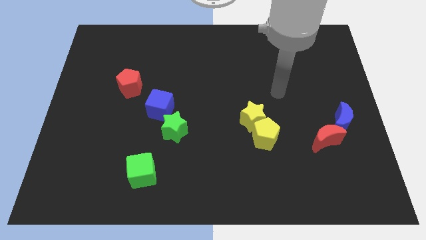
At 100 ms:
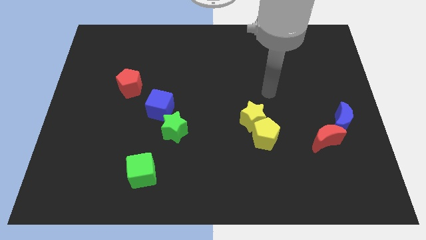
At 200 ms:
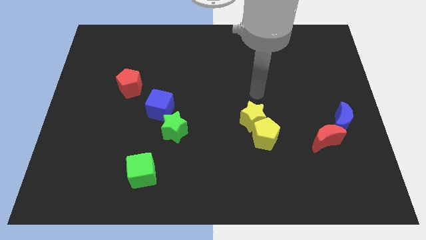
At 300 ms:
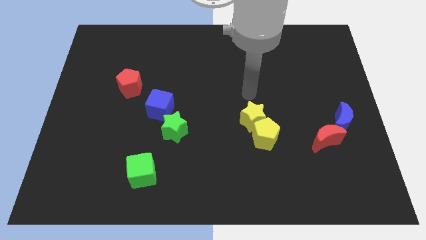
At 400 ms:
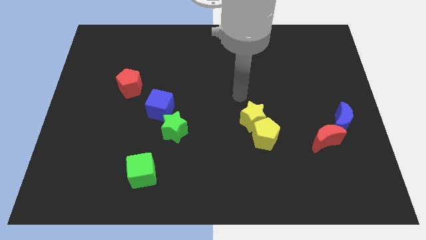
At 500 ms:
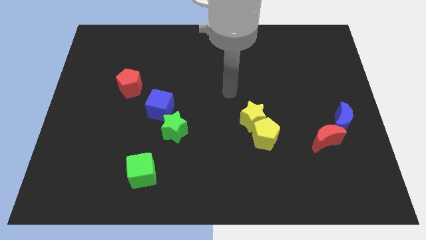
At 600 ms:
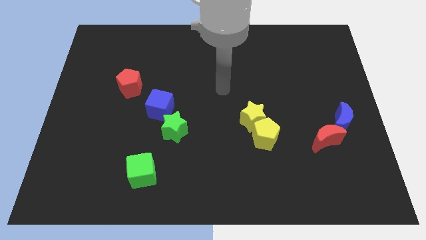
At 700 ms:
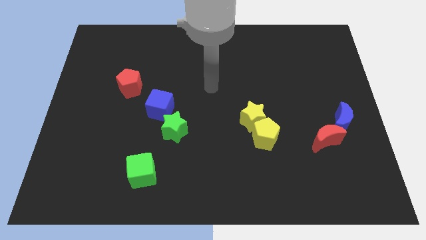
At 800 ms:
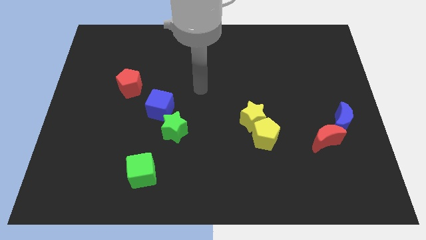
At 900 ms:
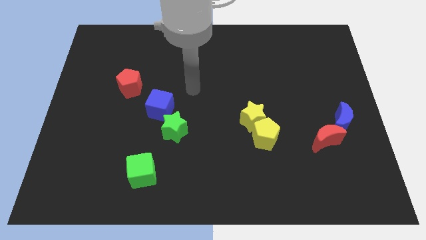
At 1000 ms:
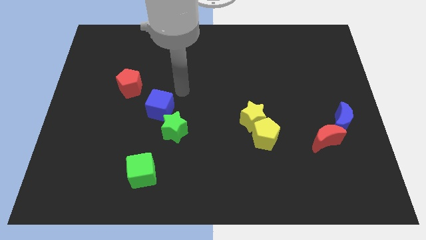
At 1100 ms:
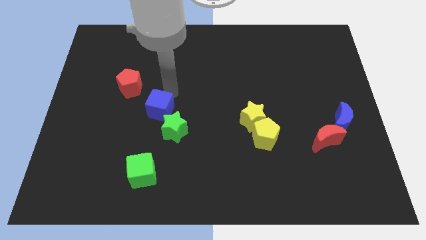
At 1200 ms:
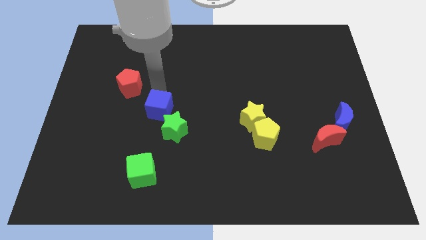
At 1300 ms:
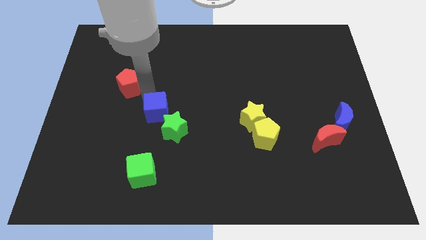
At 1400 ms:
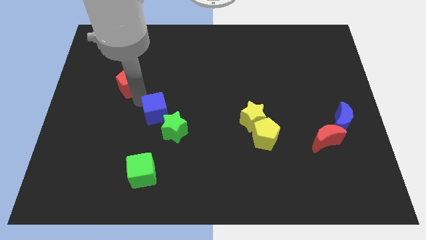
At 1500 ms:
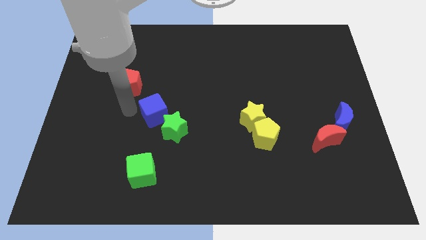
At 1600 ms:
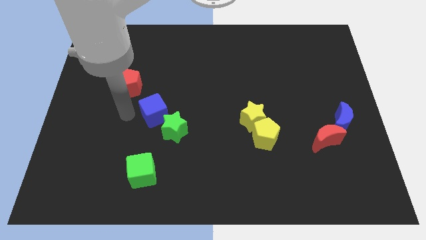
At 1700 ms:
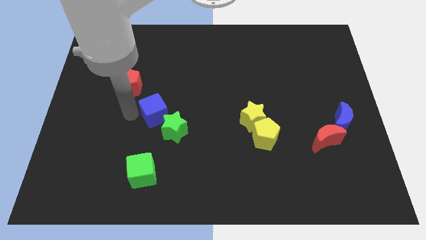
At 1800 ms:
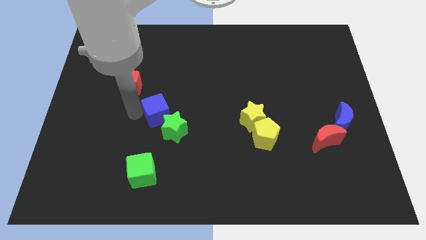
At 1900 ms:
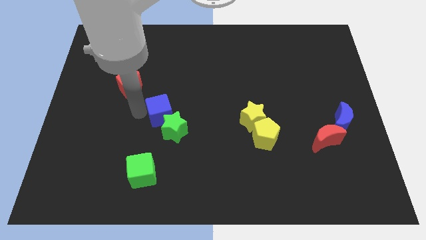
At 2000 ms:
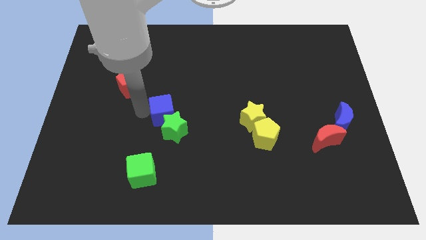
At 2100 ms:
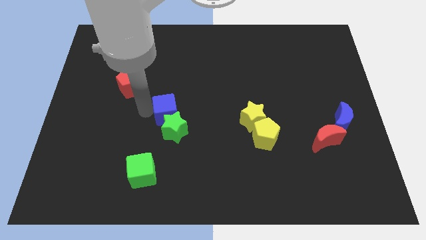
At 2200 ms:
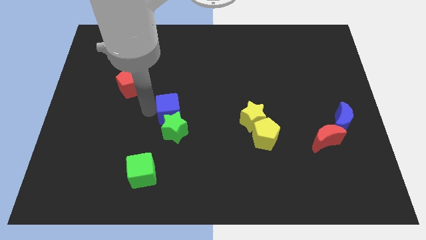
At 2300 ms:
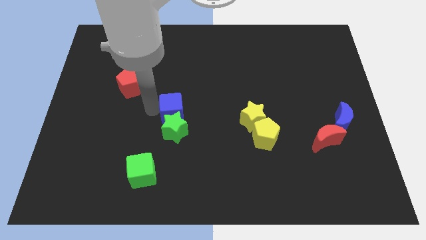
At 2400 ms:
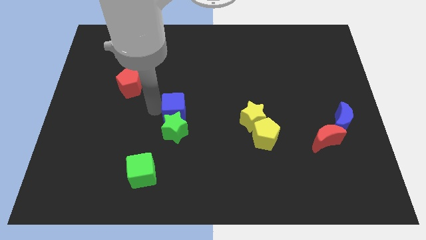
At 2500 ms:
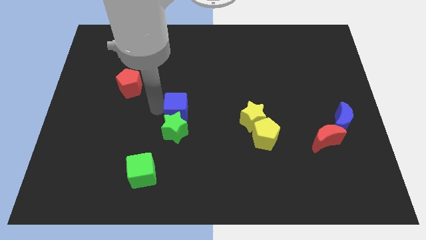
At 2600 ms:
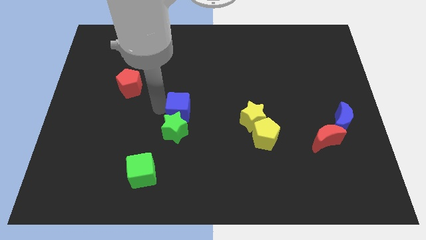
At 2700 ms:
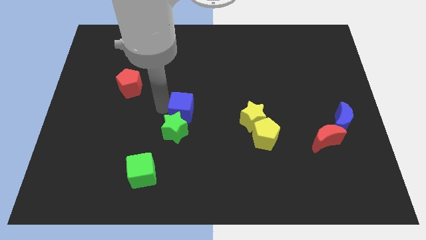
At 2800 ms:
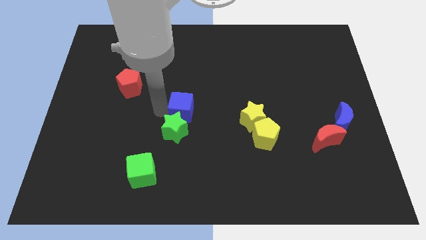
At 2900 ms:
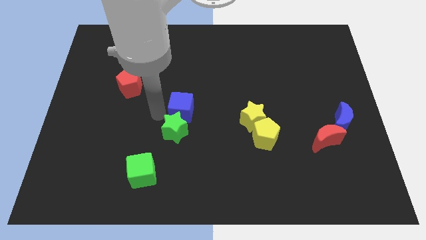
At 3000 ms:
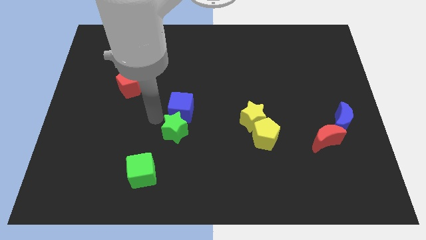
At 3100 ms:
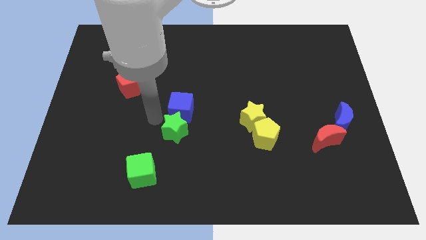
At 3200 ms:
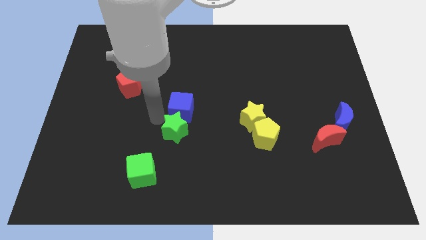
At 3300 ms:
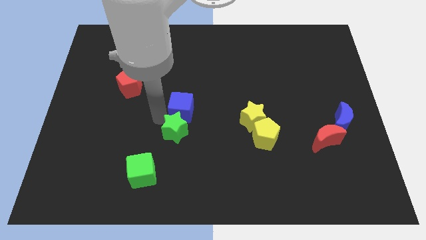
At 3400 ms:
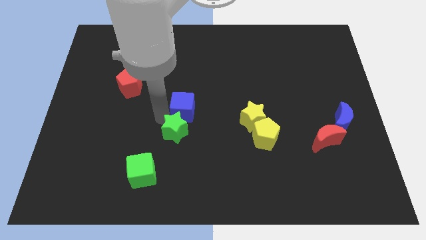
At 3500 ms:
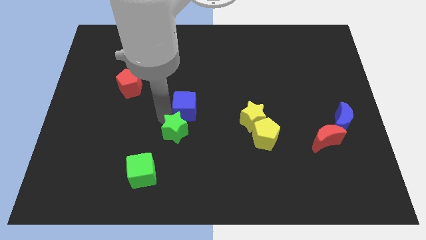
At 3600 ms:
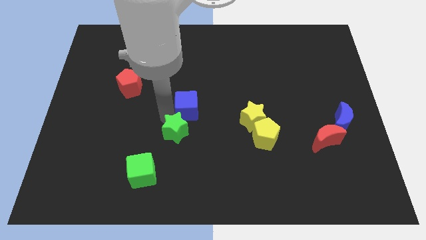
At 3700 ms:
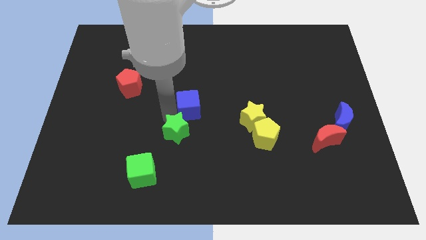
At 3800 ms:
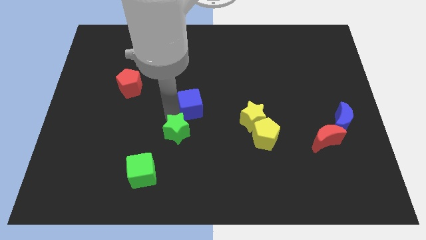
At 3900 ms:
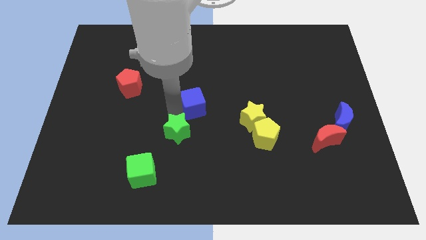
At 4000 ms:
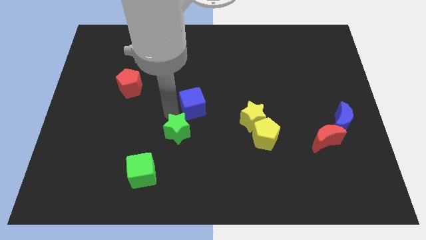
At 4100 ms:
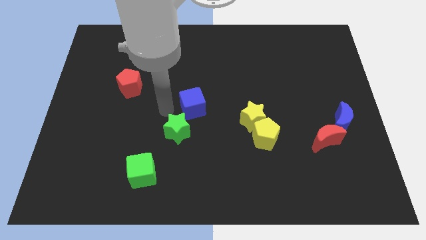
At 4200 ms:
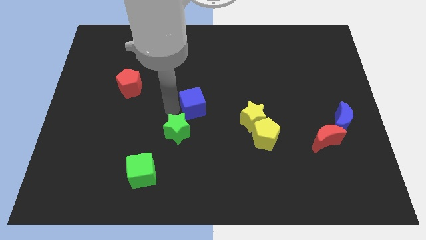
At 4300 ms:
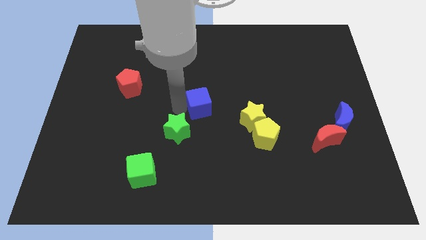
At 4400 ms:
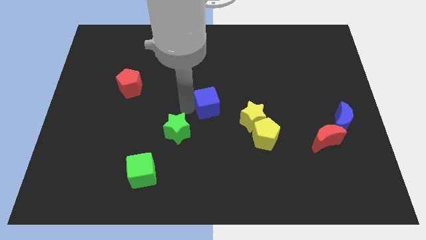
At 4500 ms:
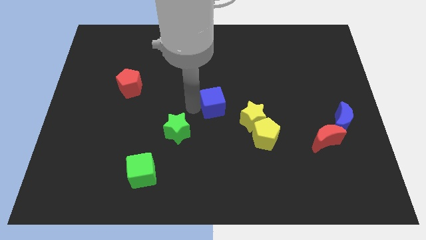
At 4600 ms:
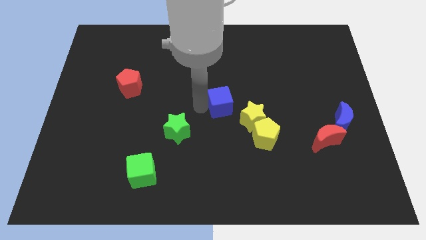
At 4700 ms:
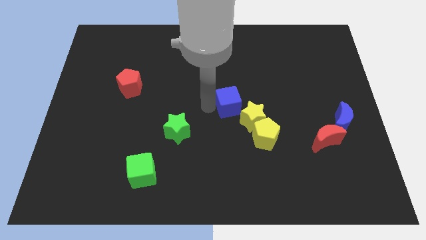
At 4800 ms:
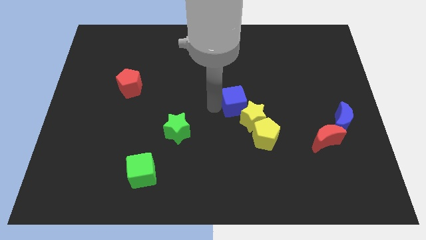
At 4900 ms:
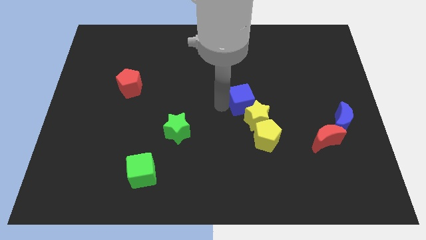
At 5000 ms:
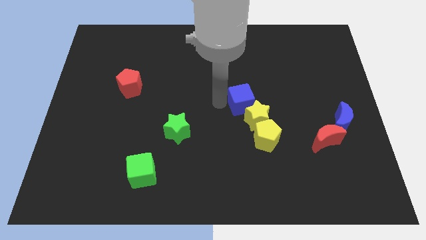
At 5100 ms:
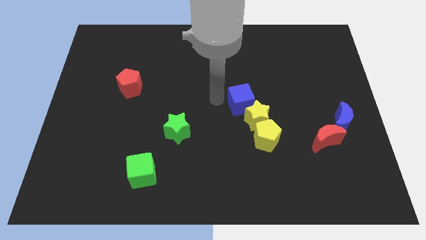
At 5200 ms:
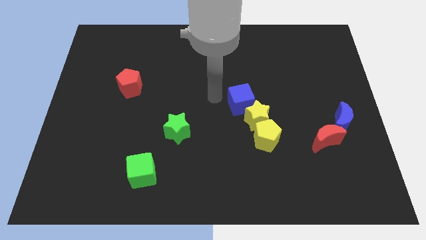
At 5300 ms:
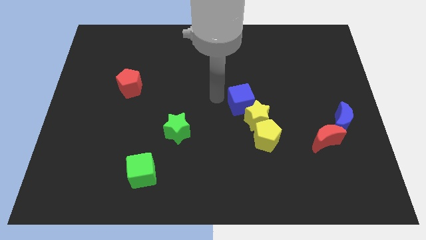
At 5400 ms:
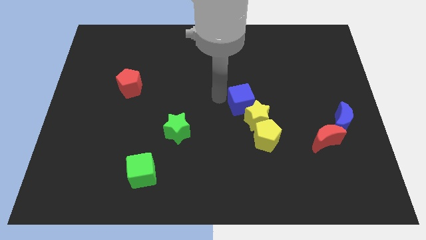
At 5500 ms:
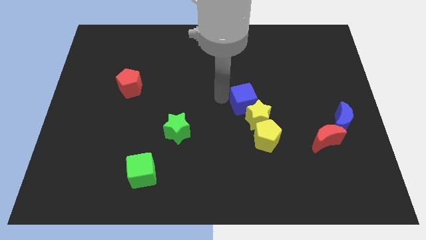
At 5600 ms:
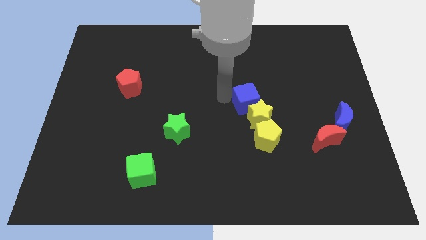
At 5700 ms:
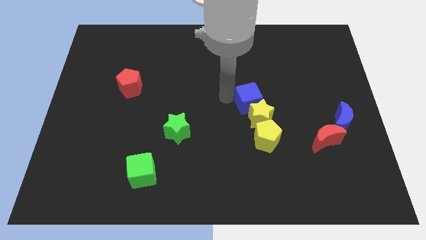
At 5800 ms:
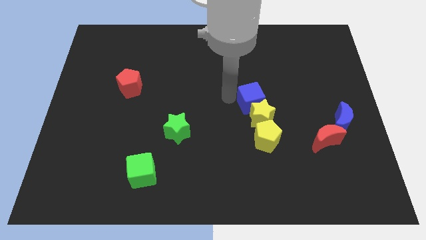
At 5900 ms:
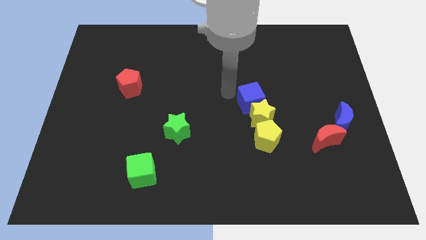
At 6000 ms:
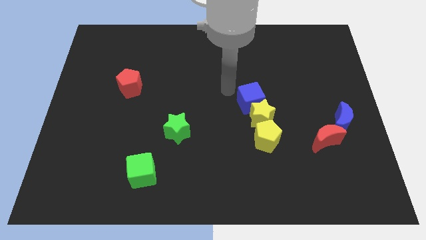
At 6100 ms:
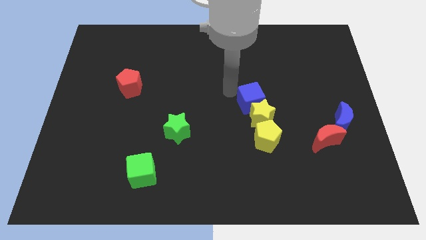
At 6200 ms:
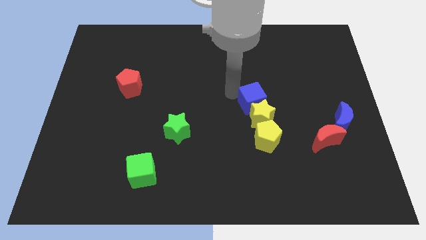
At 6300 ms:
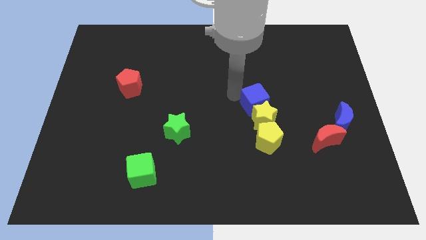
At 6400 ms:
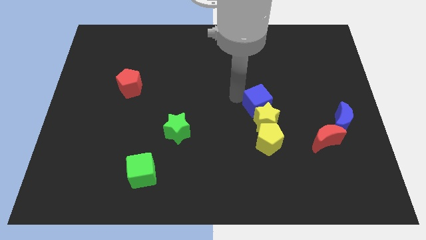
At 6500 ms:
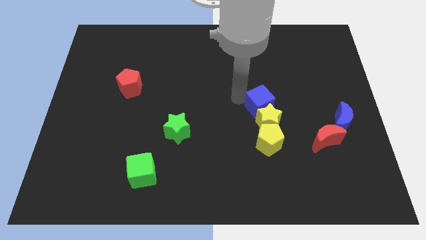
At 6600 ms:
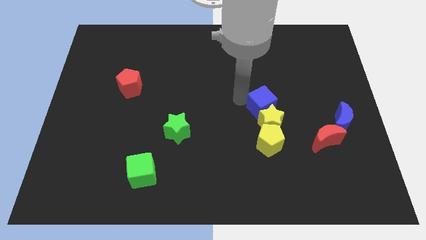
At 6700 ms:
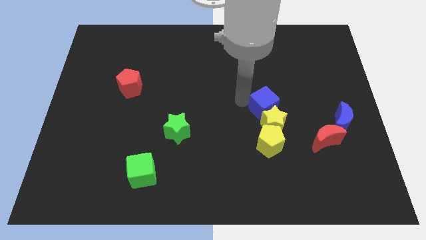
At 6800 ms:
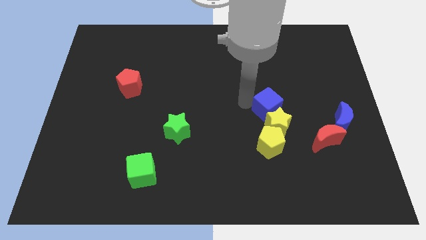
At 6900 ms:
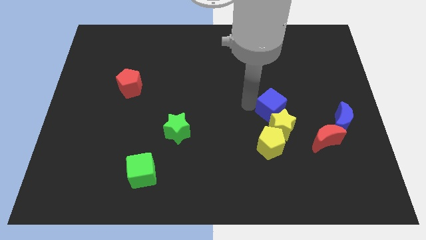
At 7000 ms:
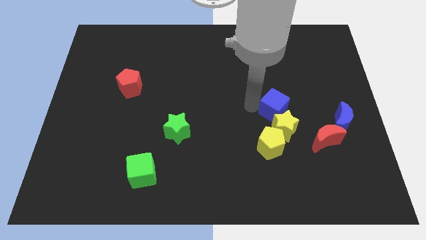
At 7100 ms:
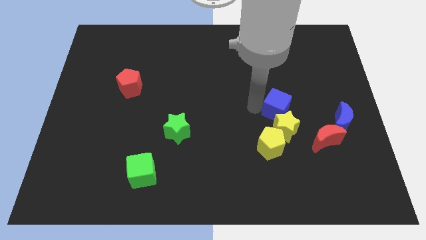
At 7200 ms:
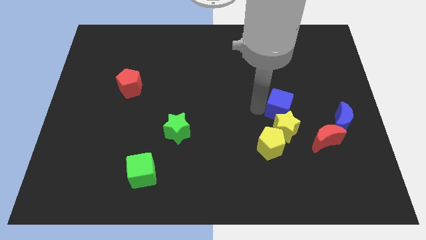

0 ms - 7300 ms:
push the blue cube to the top left side of the red moon
